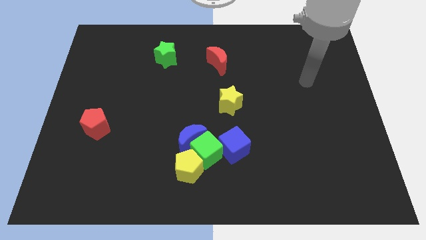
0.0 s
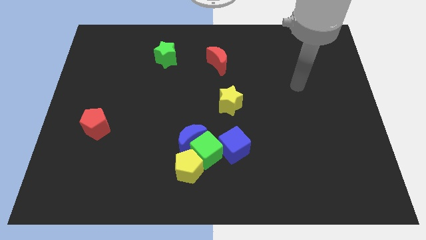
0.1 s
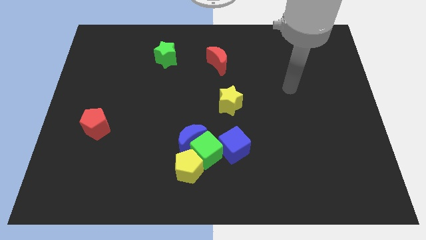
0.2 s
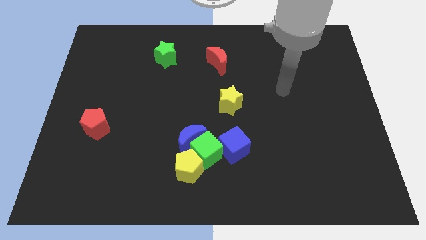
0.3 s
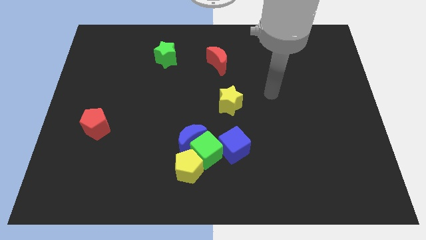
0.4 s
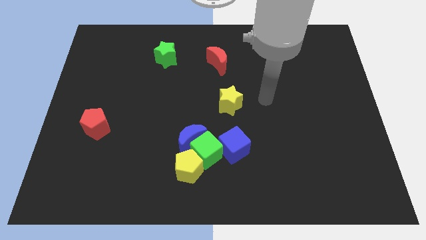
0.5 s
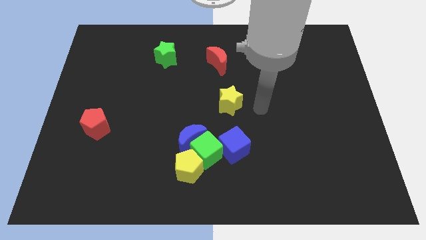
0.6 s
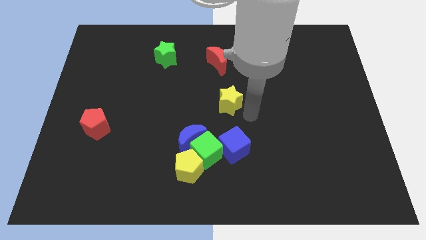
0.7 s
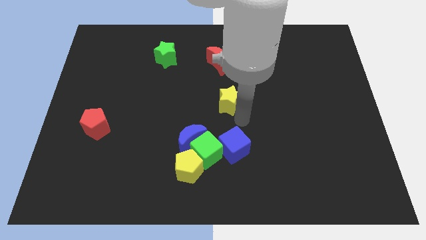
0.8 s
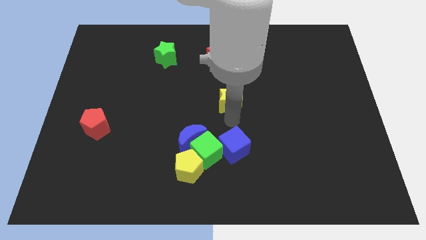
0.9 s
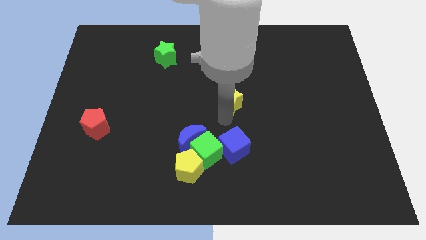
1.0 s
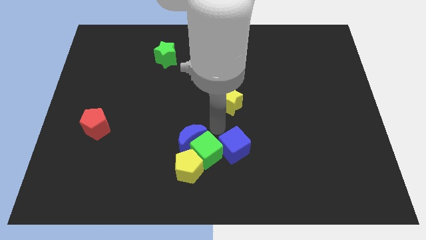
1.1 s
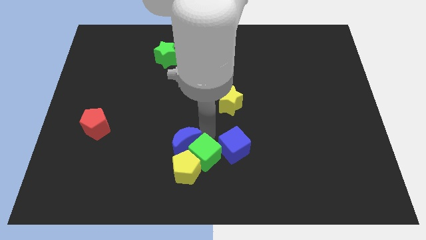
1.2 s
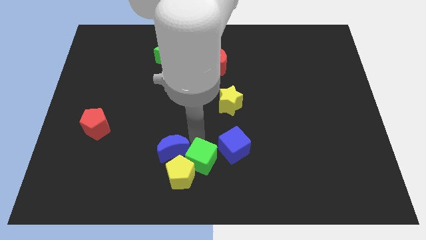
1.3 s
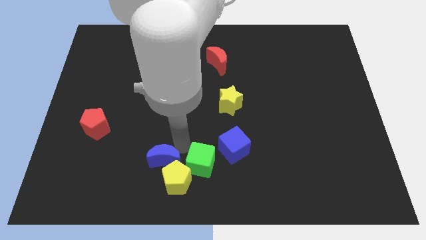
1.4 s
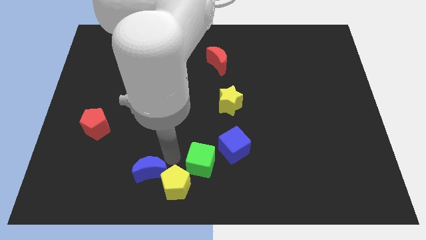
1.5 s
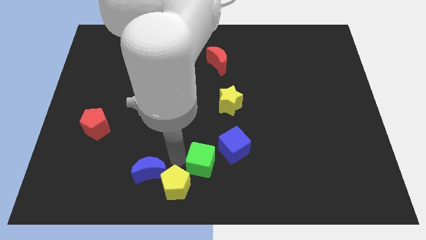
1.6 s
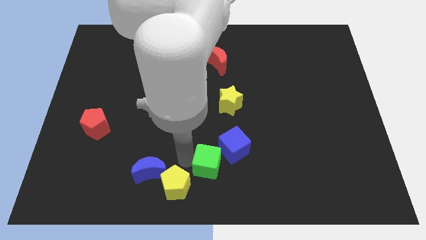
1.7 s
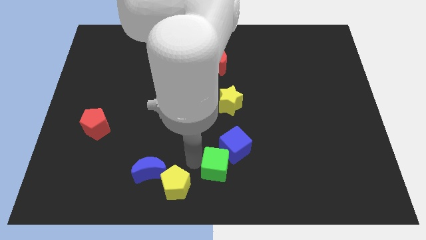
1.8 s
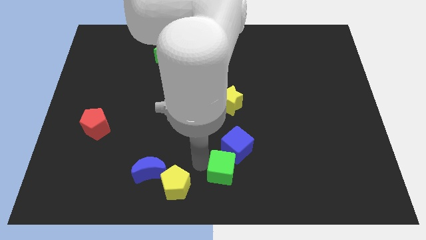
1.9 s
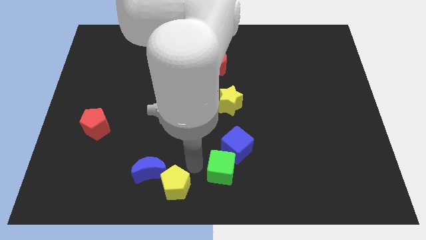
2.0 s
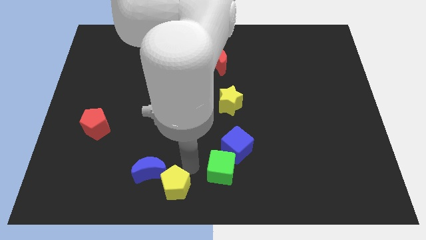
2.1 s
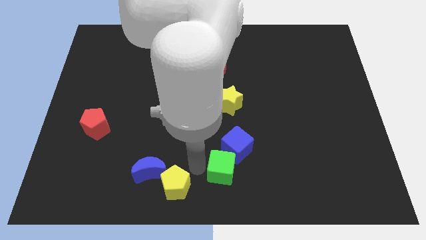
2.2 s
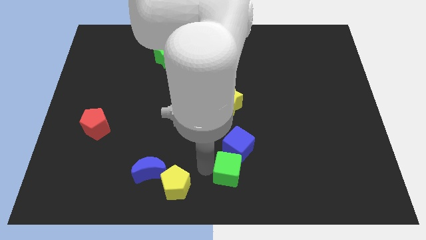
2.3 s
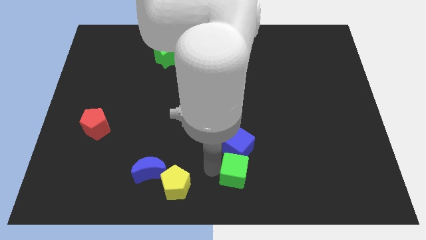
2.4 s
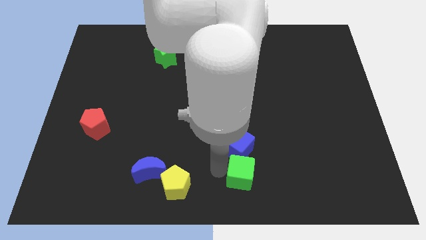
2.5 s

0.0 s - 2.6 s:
separate the green cube from the blue moon, yellow pentagon, and blue cube

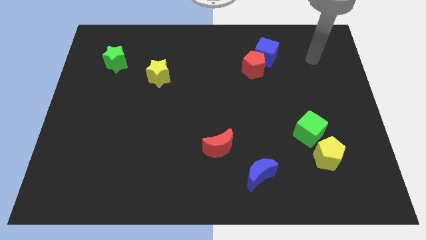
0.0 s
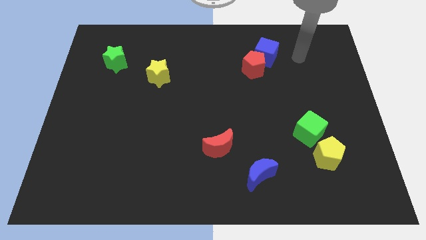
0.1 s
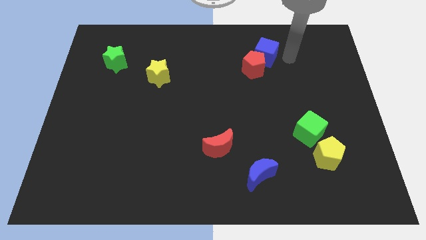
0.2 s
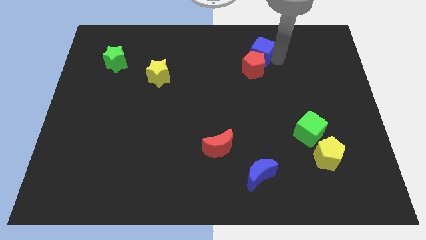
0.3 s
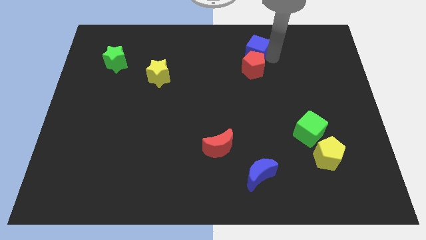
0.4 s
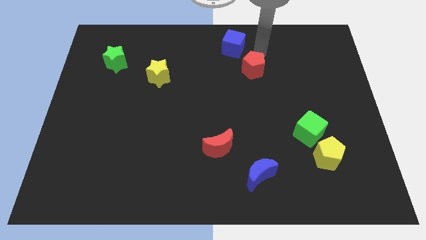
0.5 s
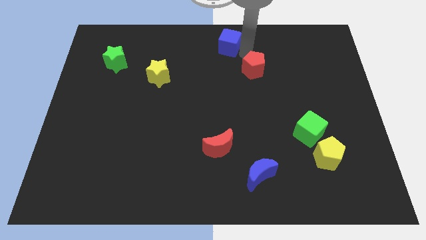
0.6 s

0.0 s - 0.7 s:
pull the red pentagon apart from the blue cube

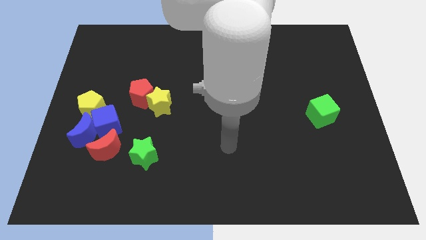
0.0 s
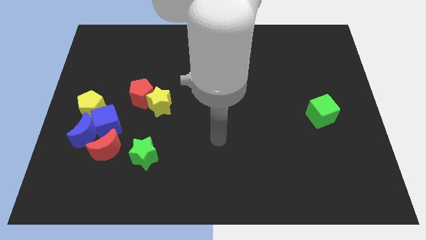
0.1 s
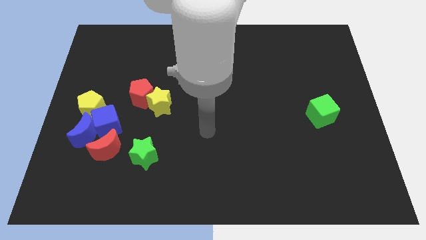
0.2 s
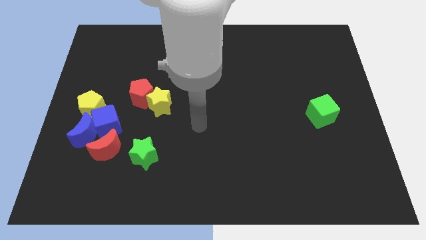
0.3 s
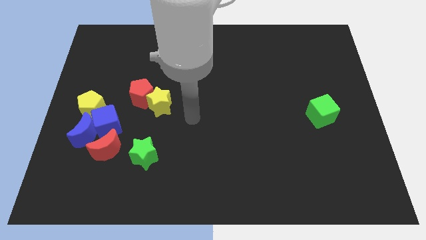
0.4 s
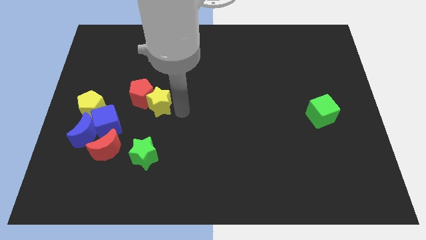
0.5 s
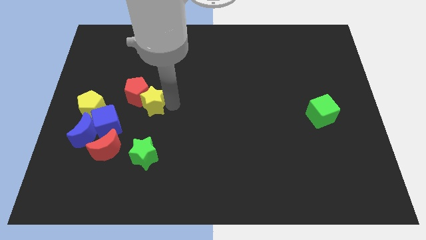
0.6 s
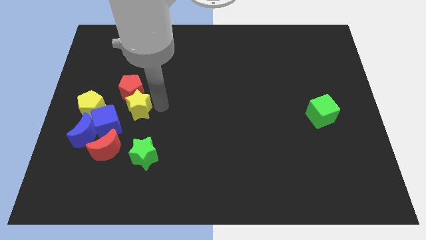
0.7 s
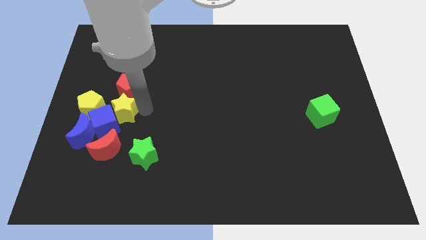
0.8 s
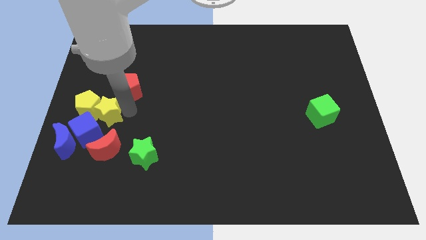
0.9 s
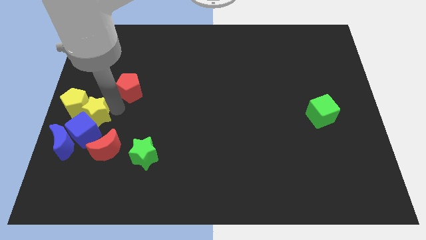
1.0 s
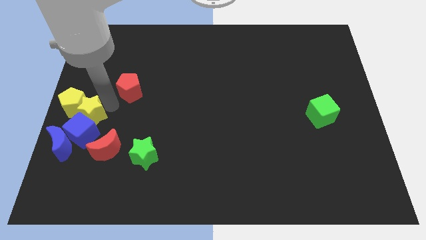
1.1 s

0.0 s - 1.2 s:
separate the red pentagon from the yellow star

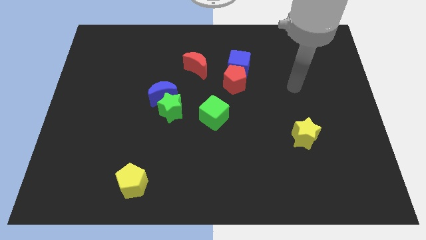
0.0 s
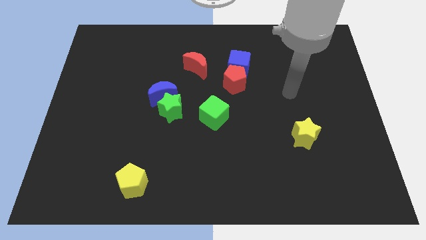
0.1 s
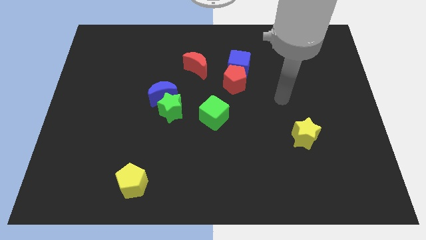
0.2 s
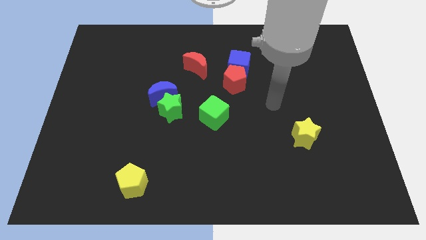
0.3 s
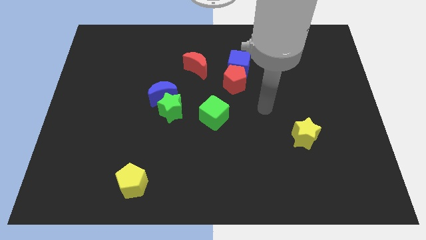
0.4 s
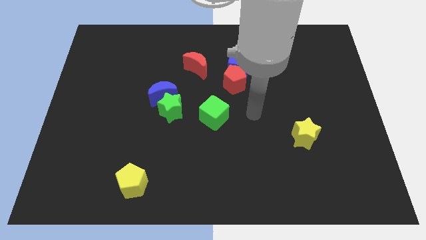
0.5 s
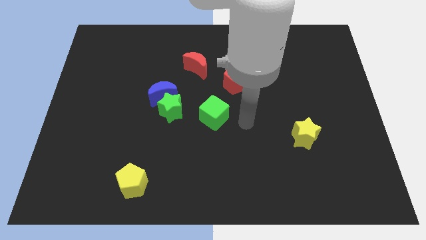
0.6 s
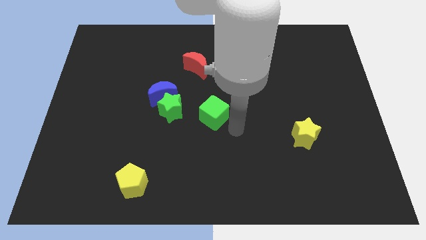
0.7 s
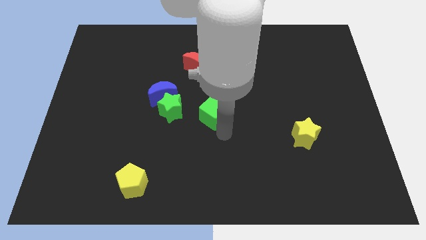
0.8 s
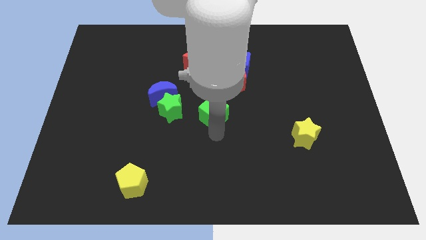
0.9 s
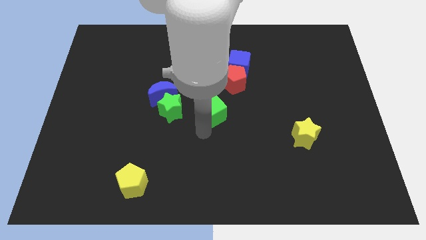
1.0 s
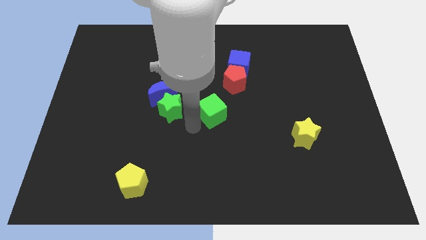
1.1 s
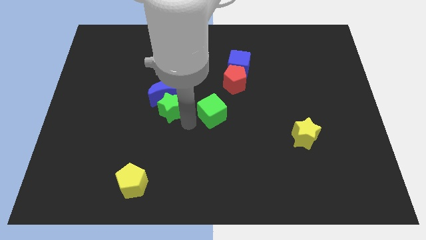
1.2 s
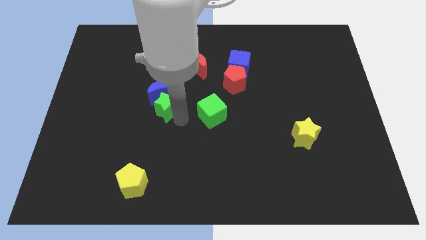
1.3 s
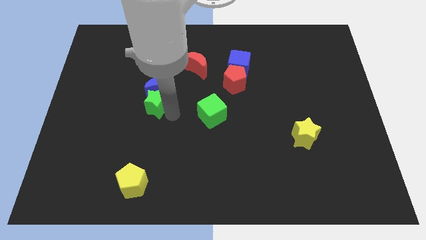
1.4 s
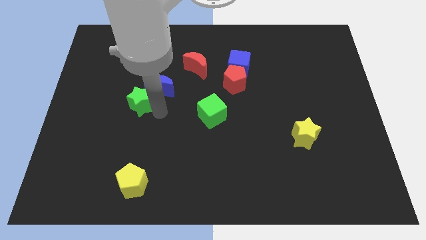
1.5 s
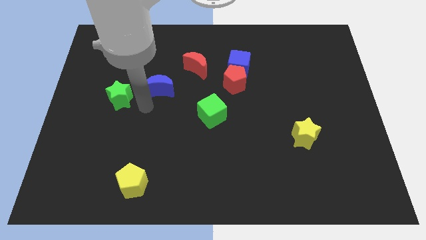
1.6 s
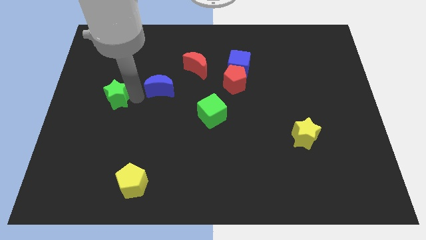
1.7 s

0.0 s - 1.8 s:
pull the blue moon apart from the green star

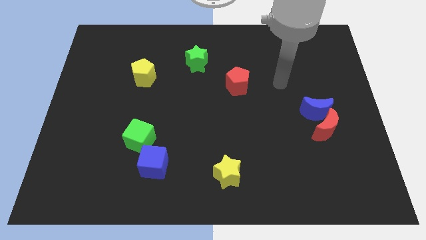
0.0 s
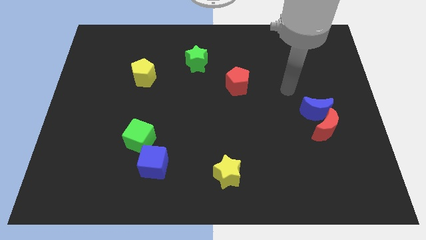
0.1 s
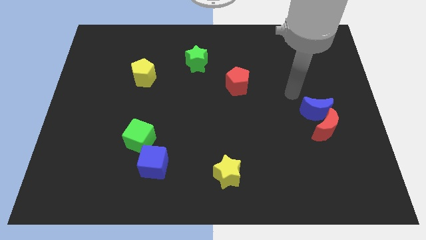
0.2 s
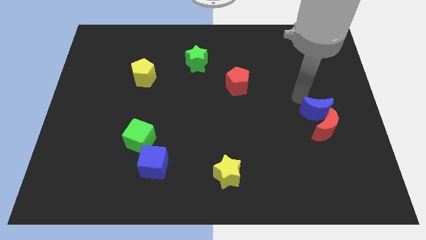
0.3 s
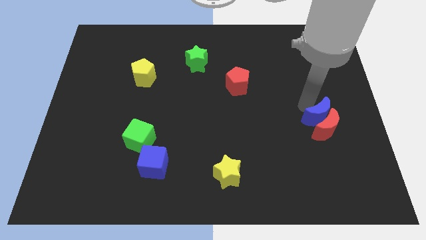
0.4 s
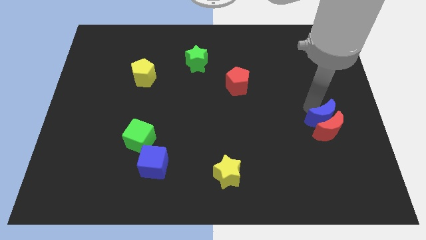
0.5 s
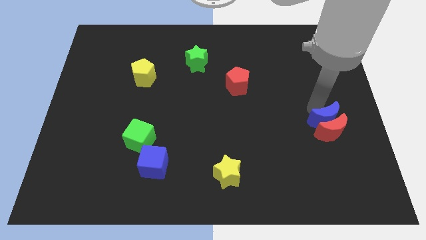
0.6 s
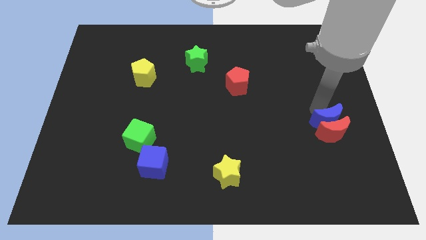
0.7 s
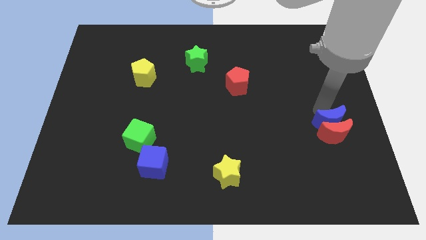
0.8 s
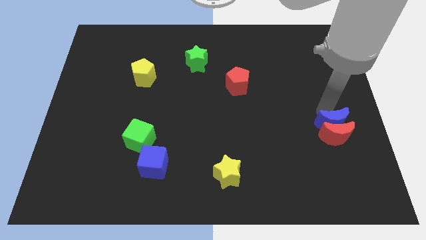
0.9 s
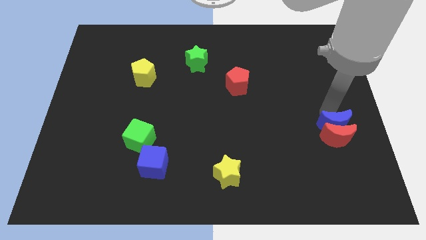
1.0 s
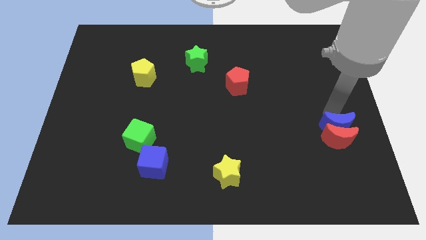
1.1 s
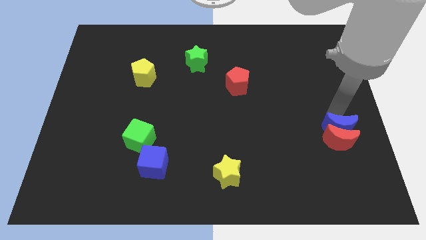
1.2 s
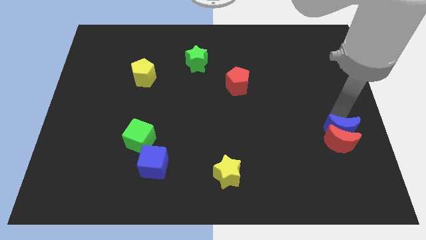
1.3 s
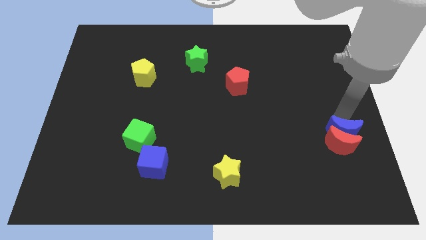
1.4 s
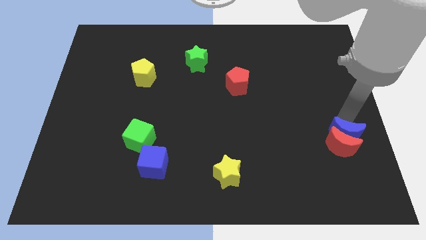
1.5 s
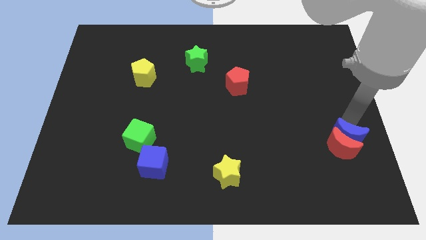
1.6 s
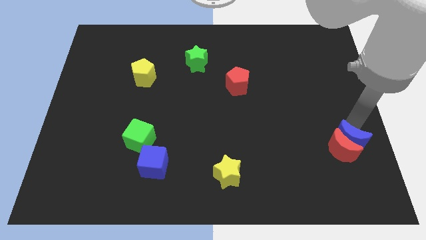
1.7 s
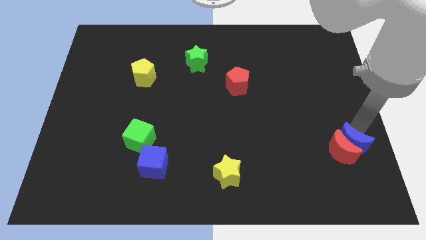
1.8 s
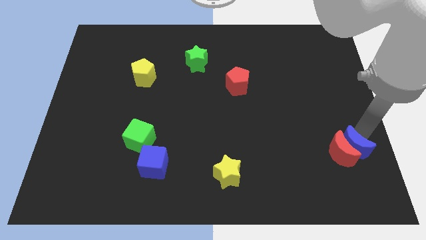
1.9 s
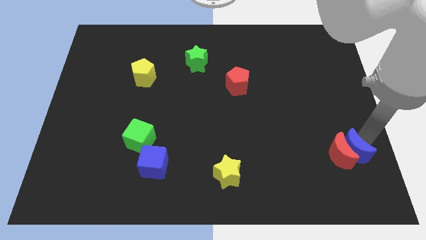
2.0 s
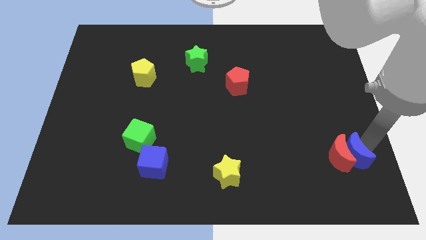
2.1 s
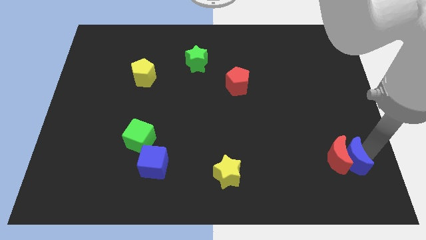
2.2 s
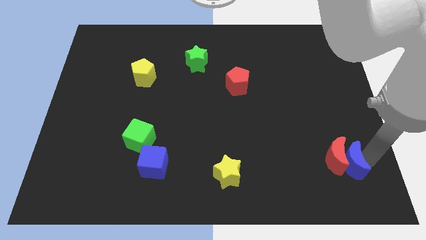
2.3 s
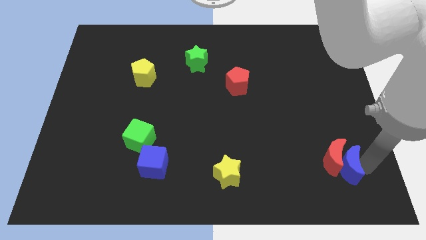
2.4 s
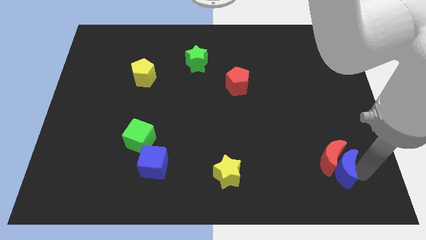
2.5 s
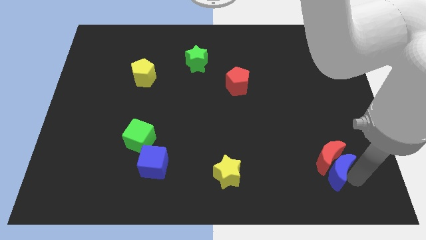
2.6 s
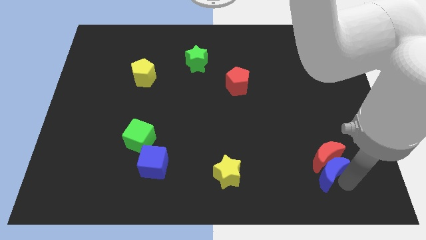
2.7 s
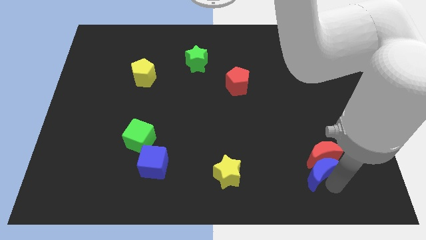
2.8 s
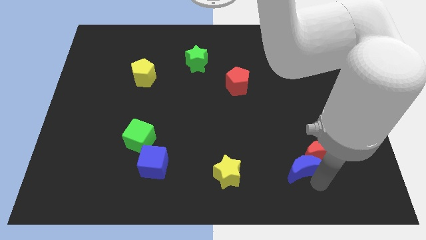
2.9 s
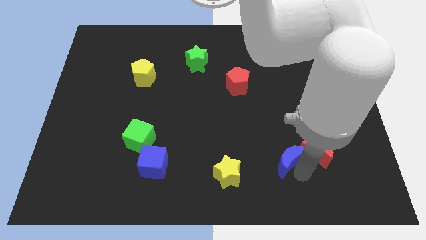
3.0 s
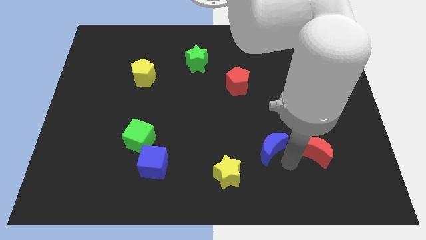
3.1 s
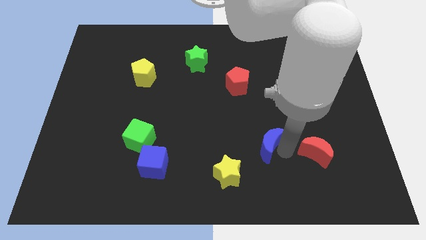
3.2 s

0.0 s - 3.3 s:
separate the red moon from the blue moon
